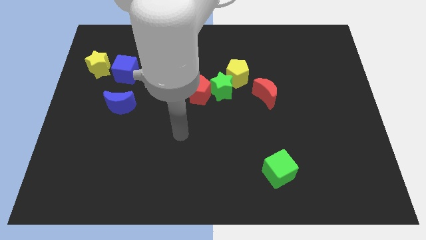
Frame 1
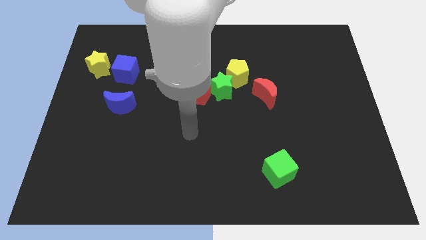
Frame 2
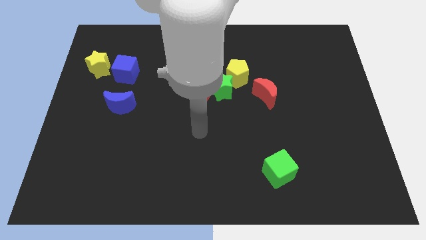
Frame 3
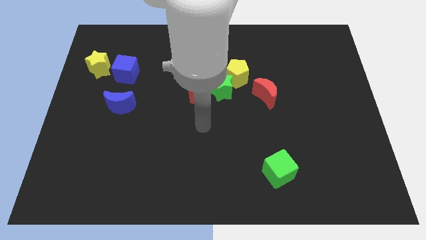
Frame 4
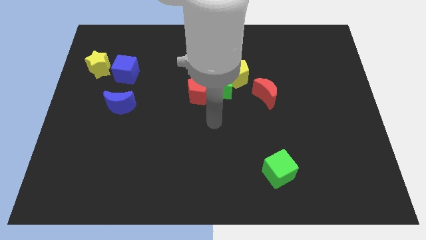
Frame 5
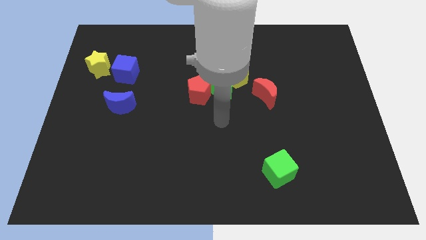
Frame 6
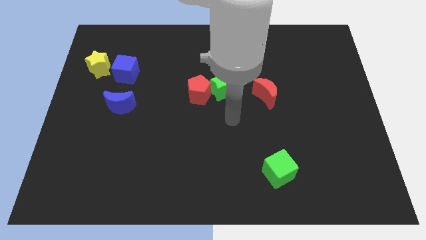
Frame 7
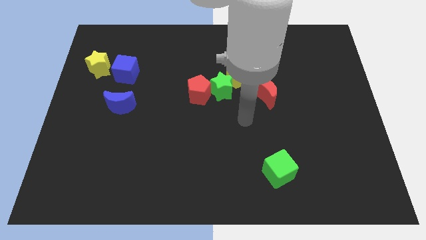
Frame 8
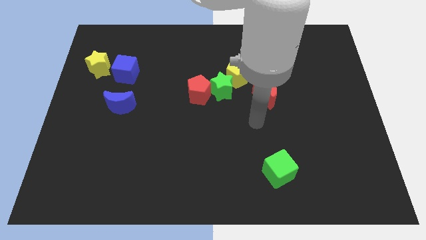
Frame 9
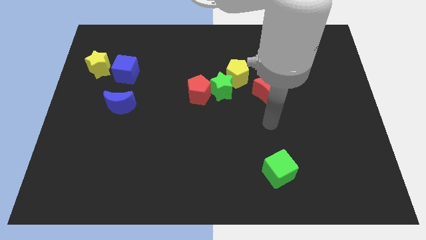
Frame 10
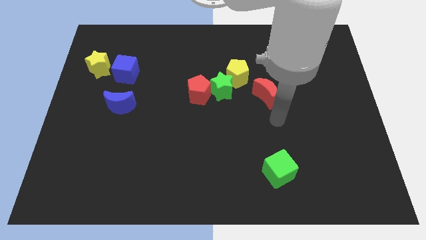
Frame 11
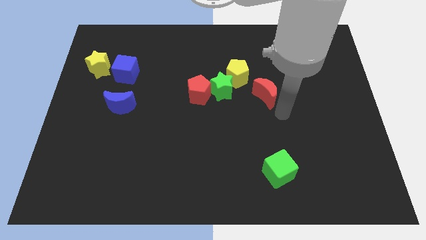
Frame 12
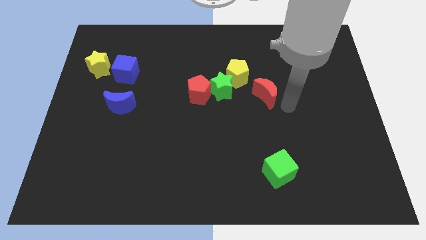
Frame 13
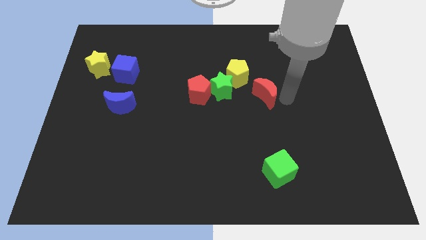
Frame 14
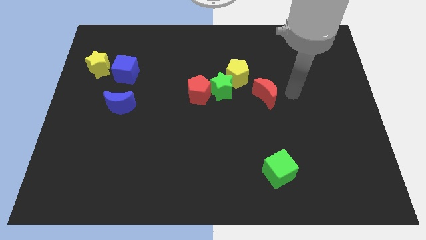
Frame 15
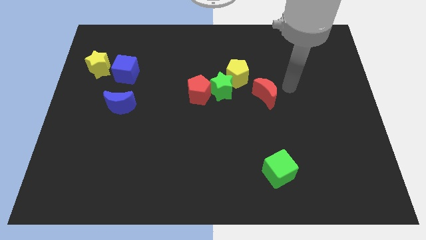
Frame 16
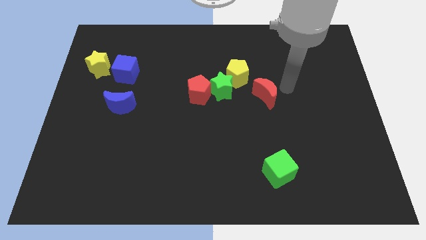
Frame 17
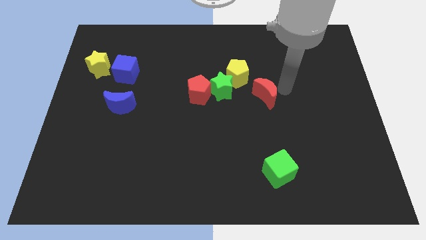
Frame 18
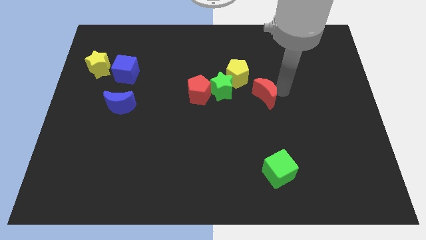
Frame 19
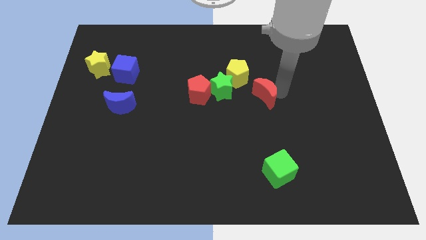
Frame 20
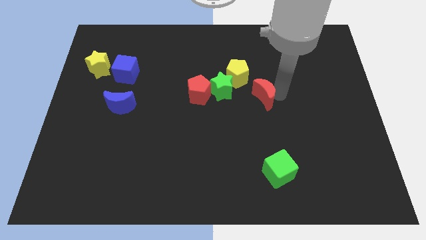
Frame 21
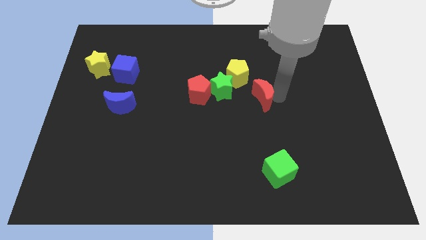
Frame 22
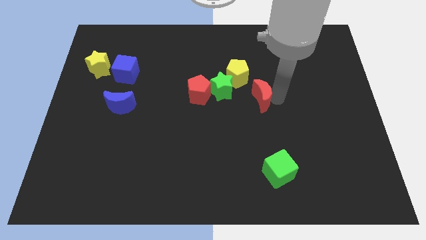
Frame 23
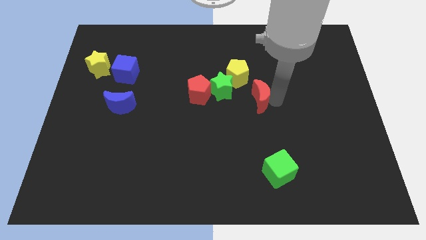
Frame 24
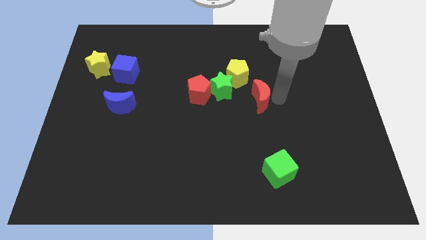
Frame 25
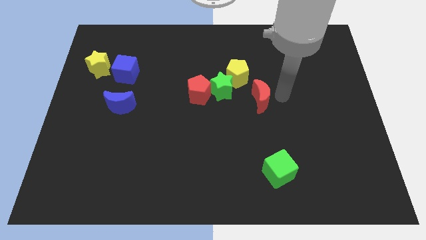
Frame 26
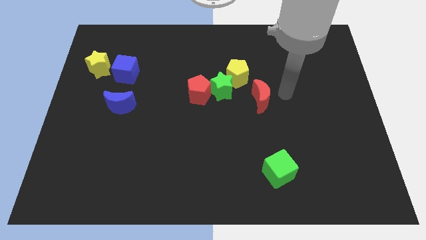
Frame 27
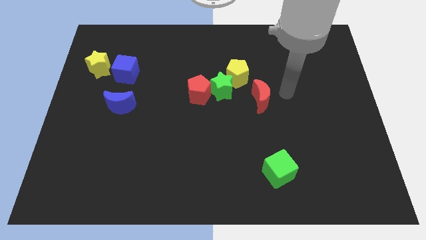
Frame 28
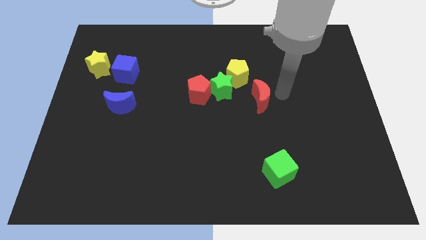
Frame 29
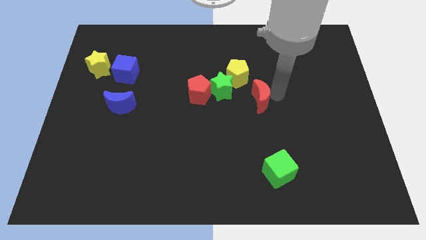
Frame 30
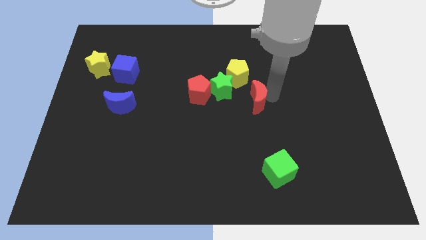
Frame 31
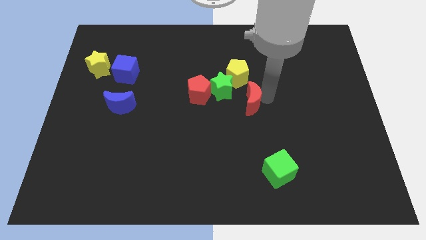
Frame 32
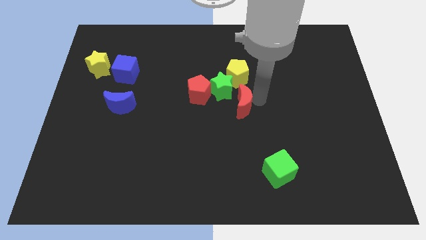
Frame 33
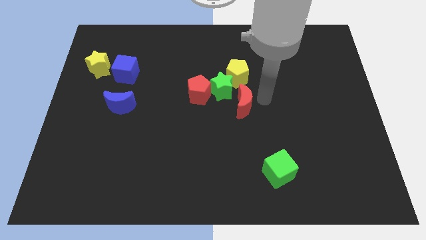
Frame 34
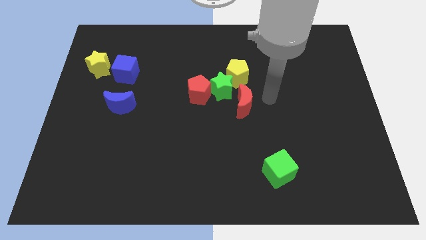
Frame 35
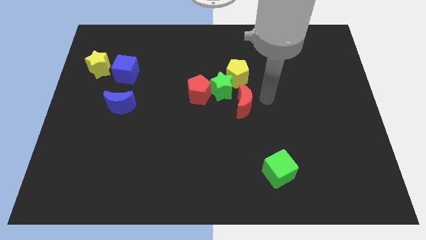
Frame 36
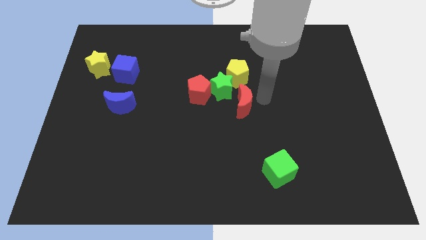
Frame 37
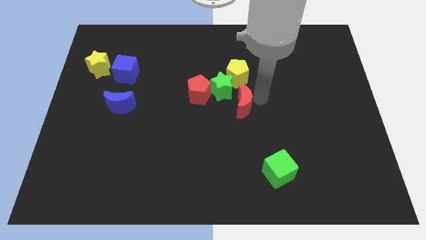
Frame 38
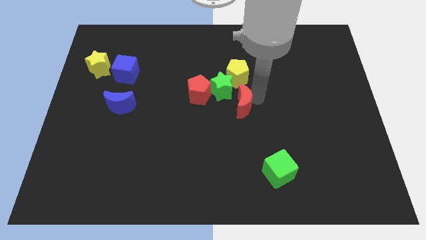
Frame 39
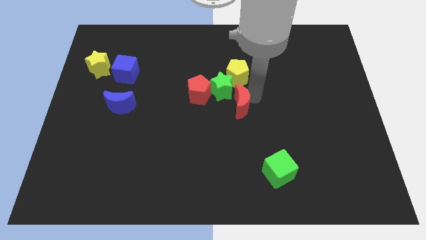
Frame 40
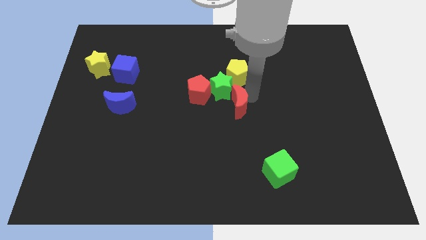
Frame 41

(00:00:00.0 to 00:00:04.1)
push the red moon diagonally down and to the right of the red pentagon

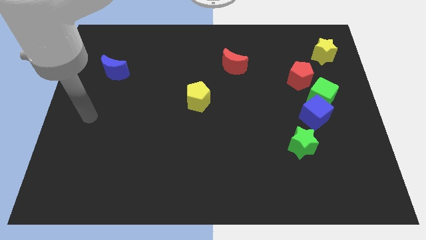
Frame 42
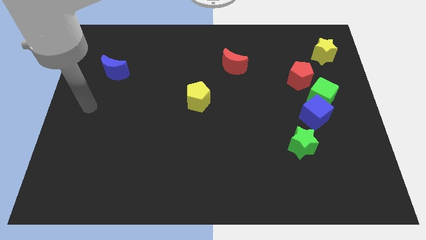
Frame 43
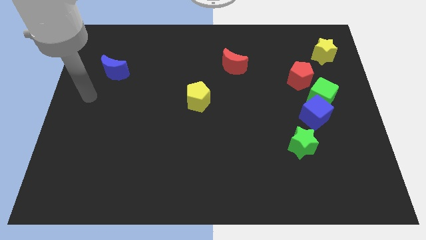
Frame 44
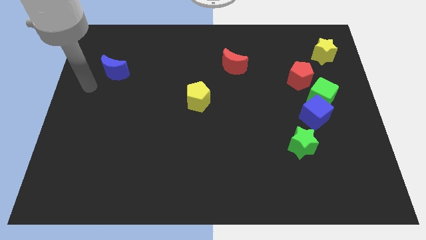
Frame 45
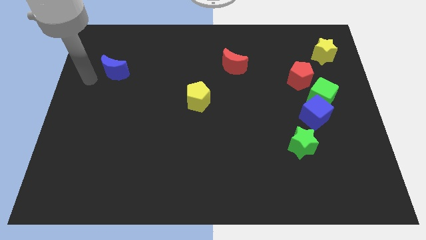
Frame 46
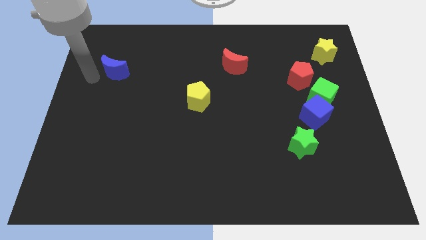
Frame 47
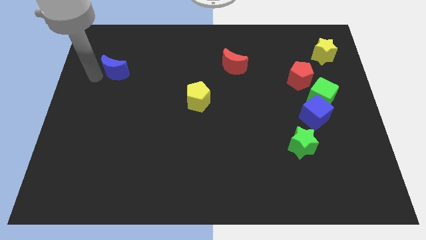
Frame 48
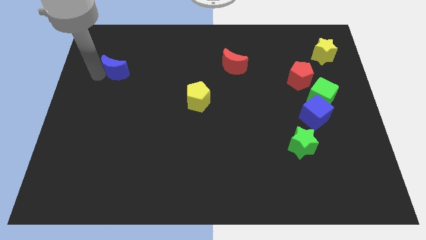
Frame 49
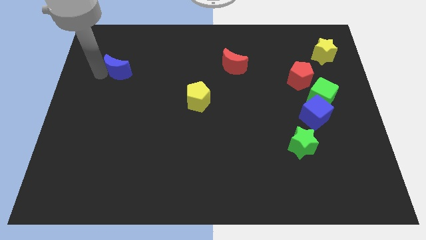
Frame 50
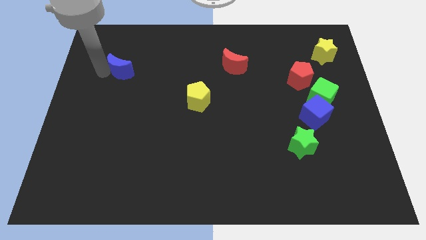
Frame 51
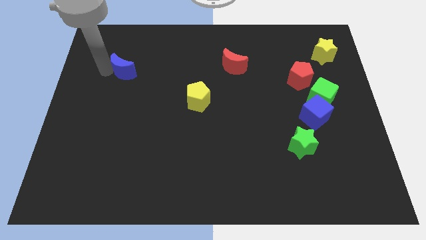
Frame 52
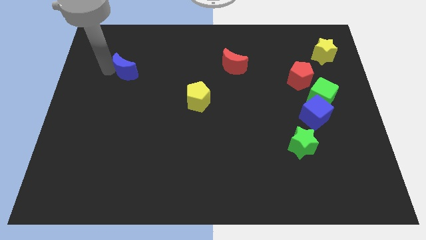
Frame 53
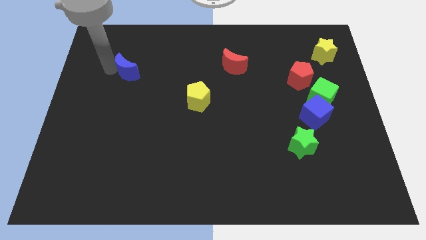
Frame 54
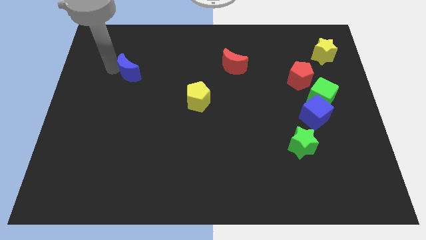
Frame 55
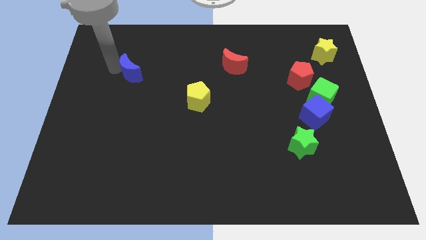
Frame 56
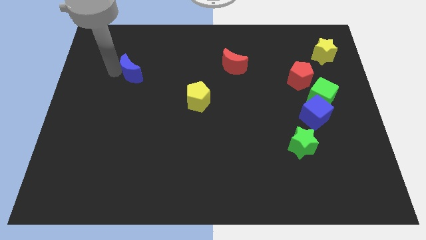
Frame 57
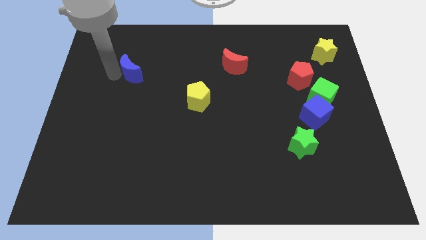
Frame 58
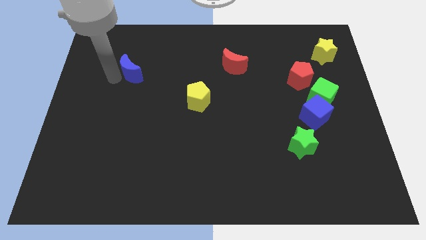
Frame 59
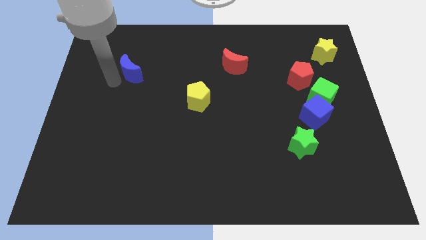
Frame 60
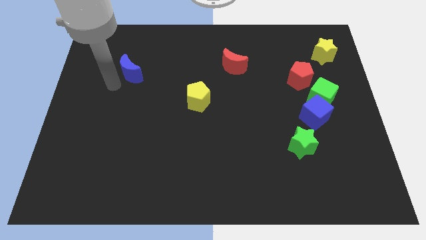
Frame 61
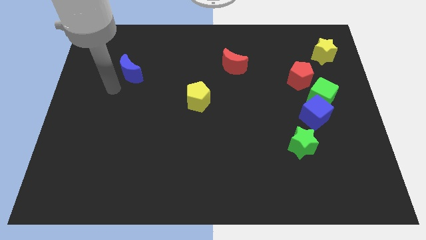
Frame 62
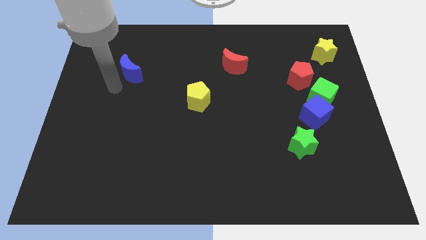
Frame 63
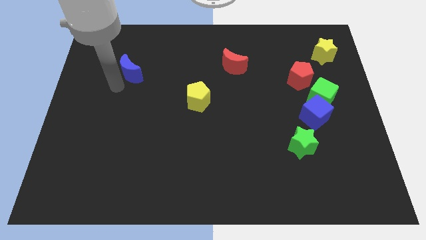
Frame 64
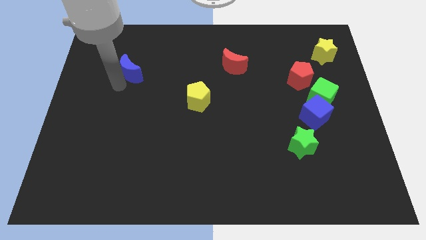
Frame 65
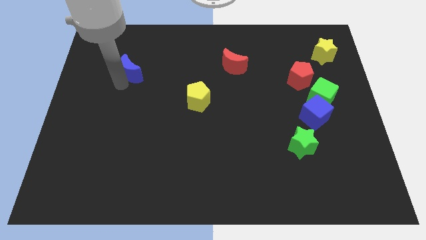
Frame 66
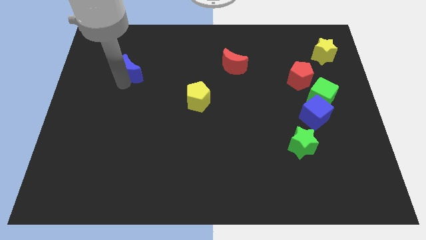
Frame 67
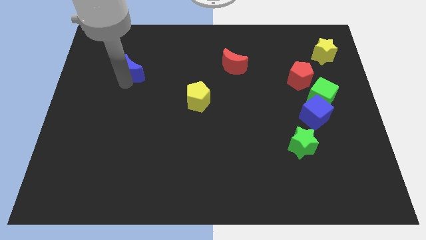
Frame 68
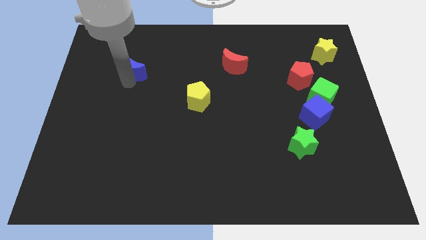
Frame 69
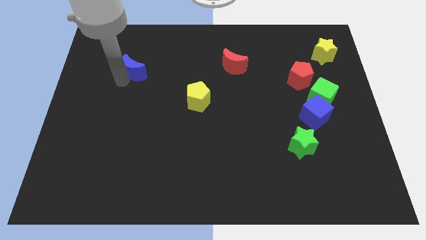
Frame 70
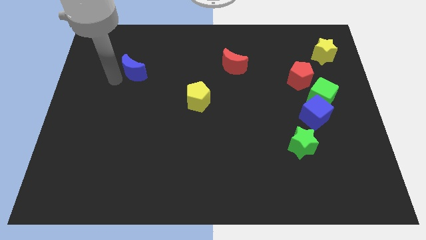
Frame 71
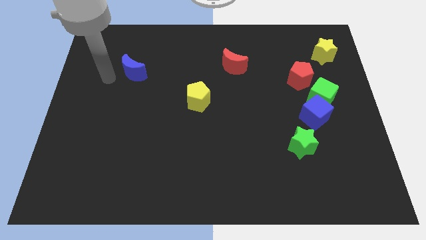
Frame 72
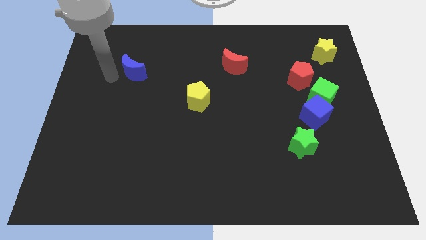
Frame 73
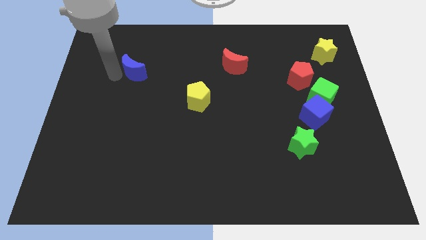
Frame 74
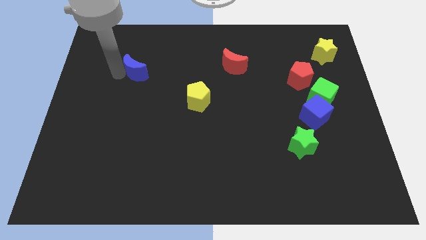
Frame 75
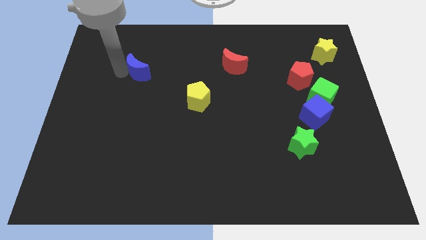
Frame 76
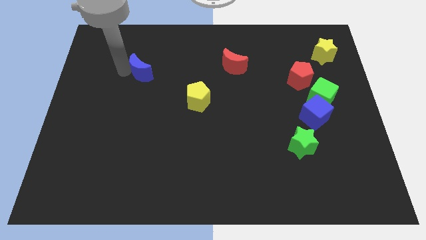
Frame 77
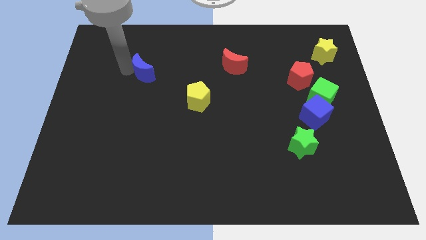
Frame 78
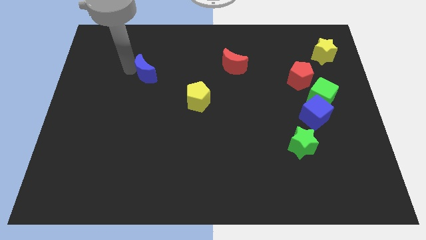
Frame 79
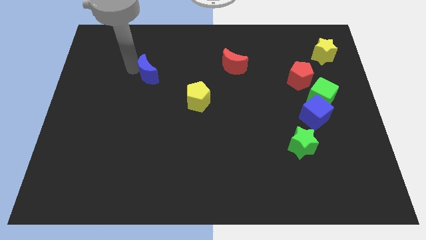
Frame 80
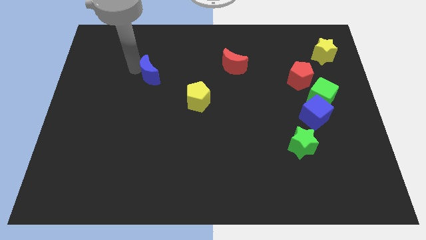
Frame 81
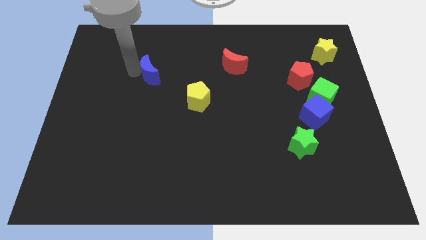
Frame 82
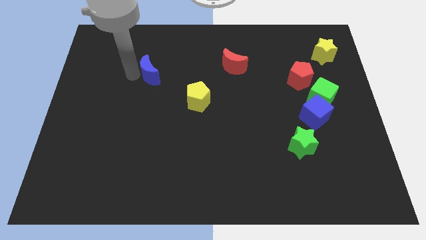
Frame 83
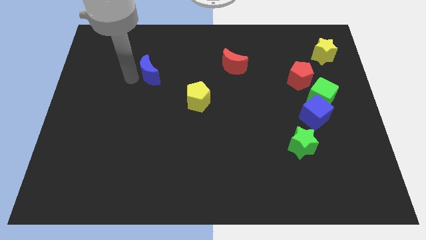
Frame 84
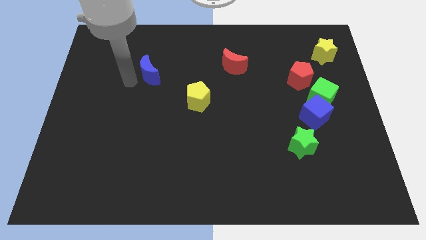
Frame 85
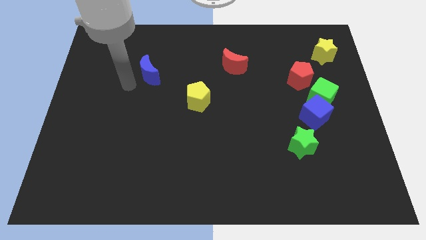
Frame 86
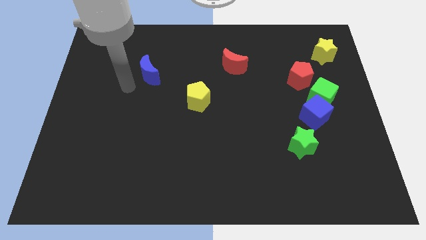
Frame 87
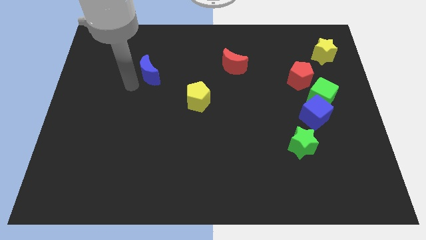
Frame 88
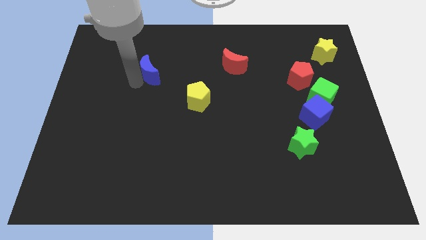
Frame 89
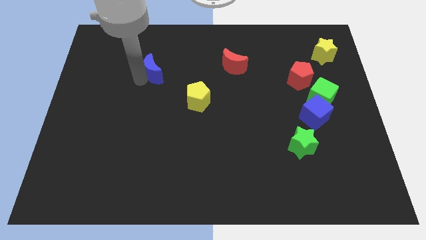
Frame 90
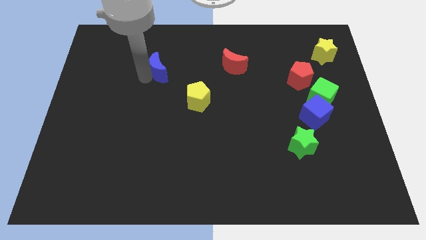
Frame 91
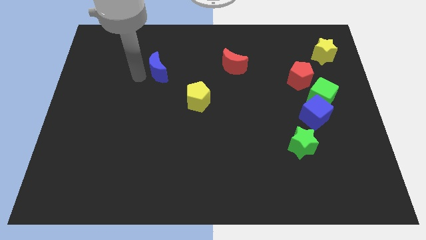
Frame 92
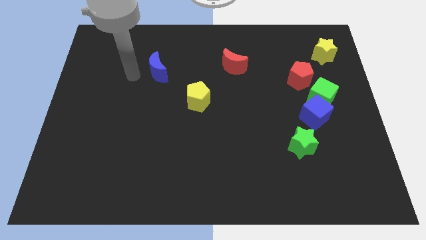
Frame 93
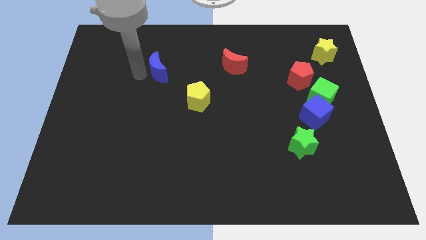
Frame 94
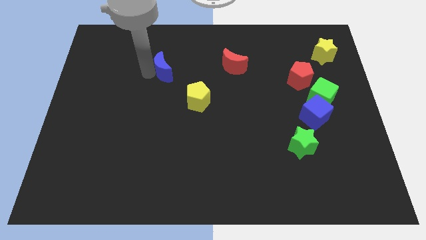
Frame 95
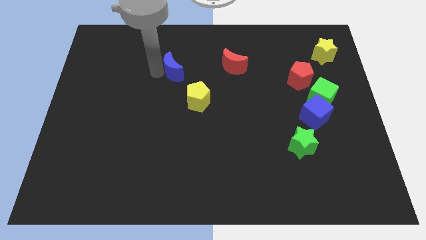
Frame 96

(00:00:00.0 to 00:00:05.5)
slide the blue moon just left of the red moon
